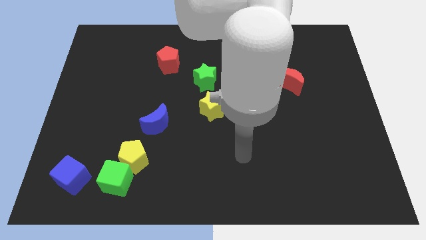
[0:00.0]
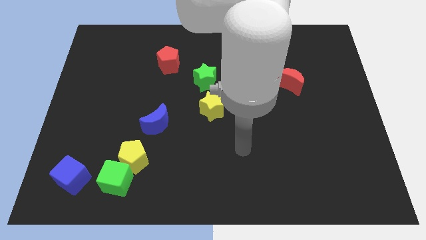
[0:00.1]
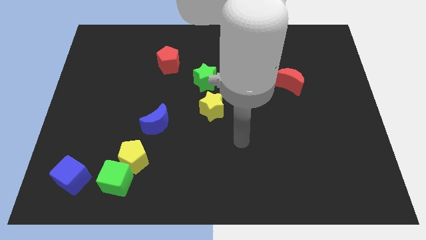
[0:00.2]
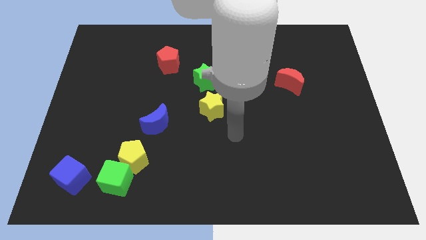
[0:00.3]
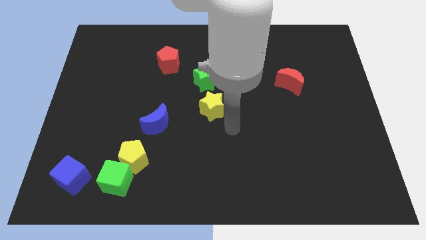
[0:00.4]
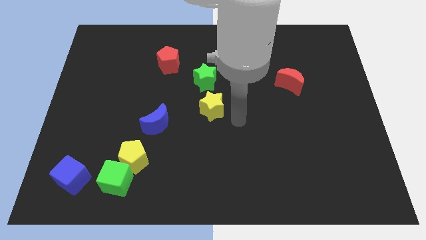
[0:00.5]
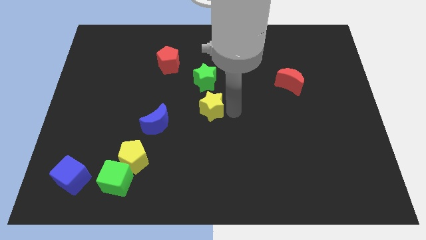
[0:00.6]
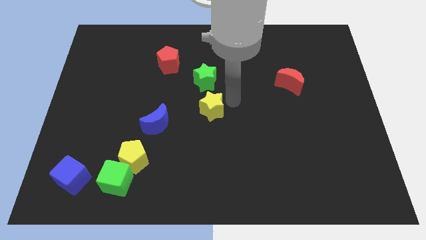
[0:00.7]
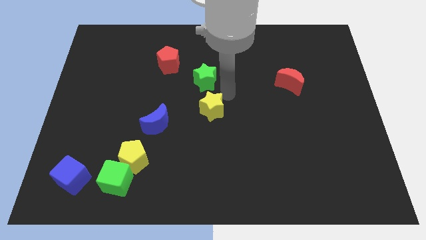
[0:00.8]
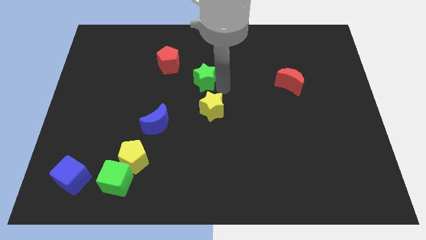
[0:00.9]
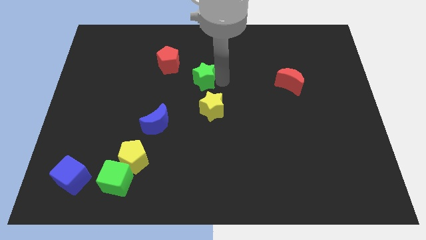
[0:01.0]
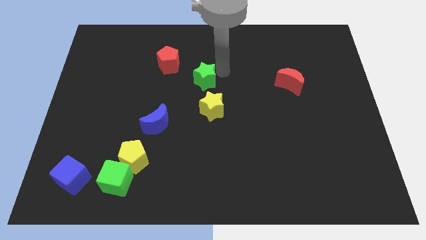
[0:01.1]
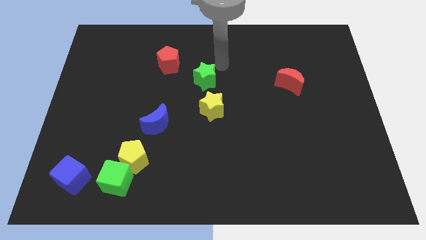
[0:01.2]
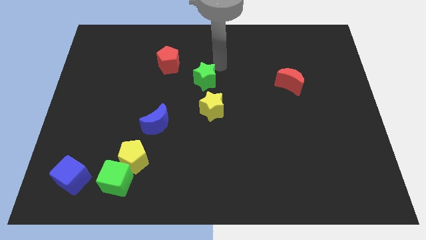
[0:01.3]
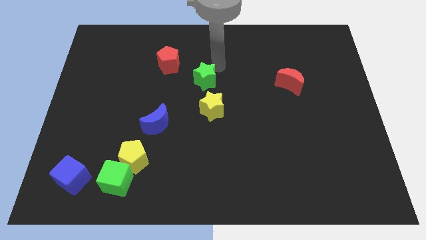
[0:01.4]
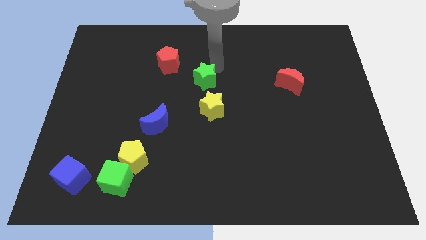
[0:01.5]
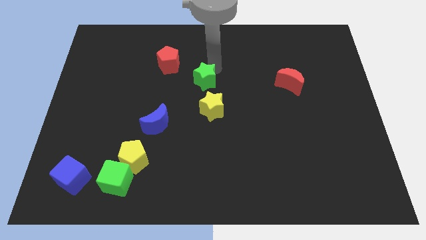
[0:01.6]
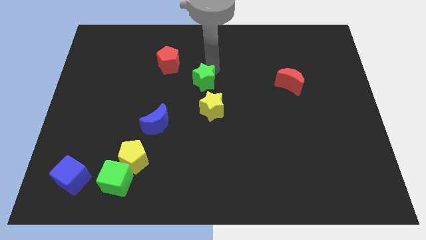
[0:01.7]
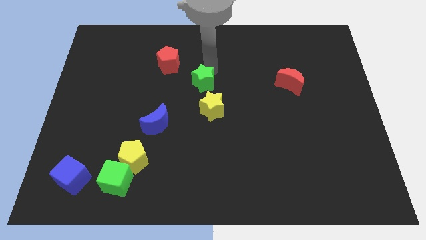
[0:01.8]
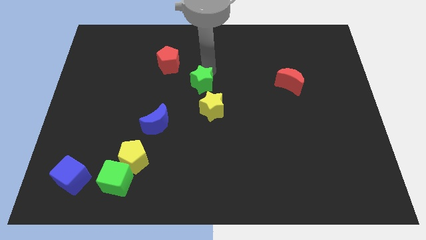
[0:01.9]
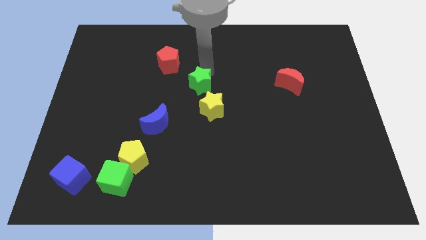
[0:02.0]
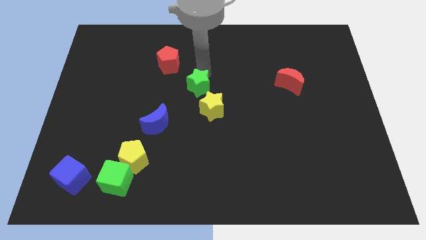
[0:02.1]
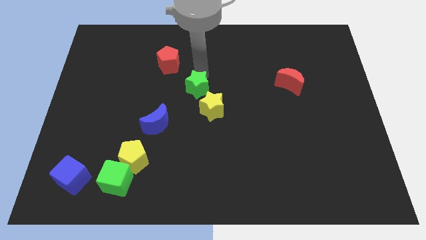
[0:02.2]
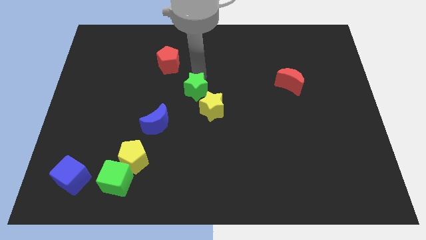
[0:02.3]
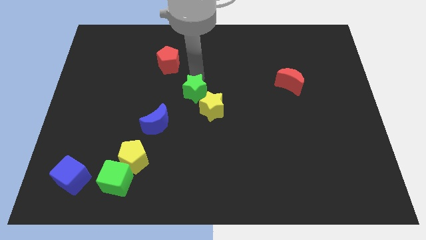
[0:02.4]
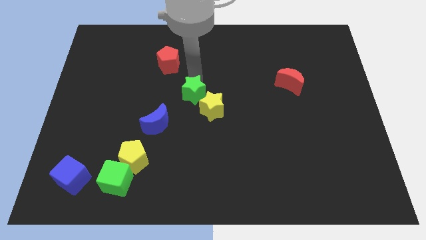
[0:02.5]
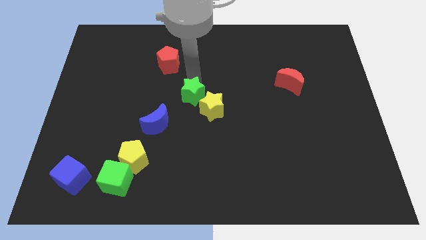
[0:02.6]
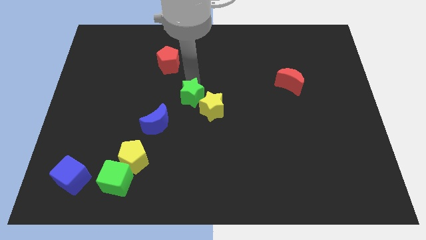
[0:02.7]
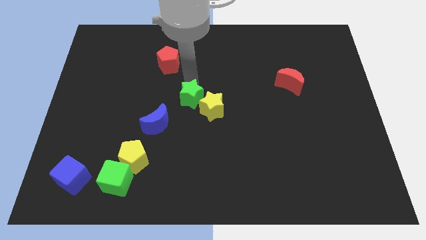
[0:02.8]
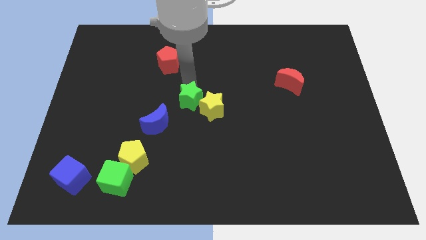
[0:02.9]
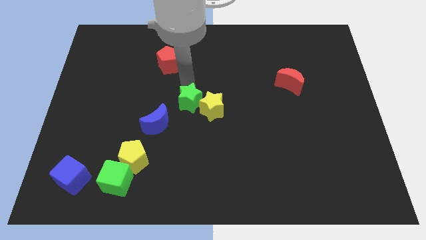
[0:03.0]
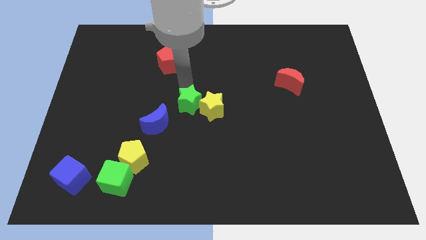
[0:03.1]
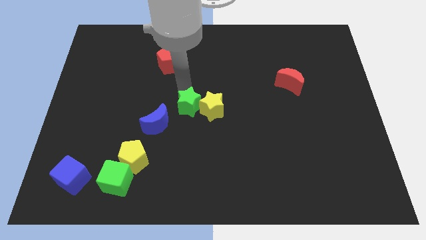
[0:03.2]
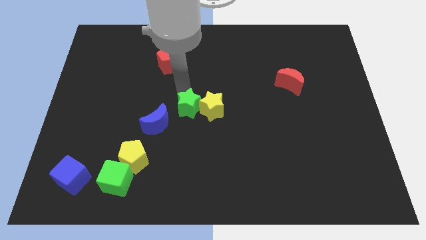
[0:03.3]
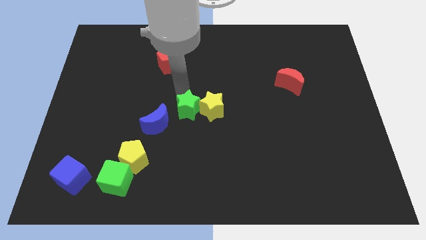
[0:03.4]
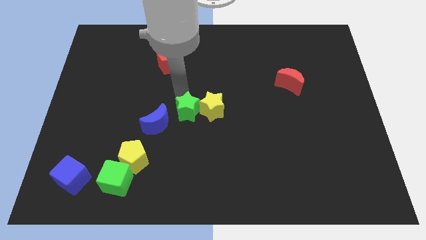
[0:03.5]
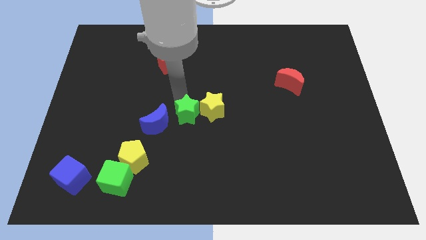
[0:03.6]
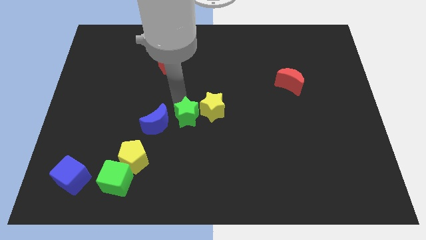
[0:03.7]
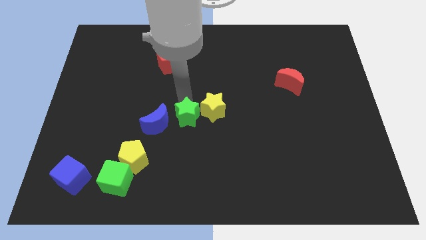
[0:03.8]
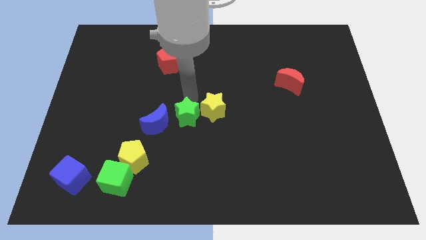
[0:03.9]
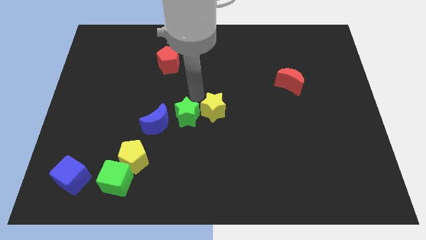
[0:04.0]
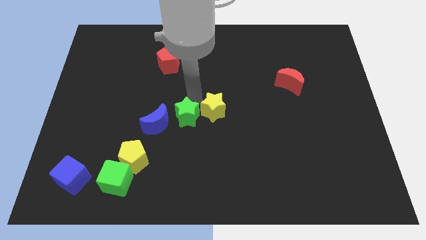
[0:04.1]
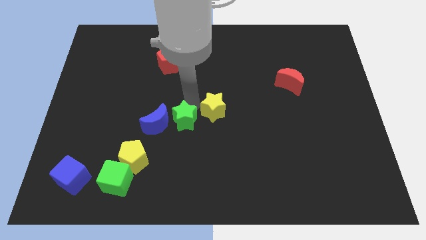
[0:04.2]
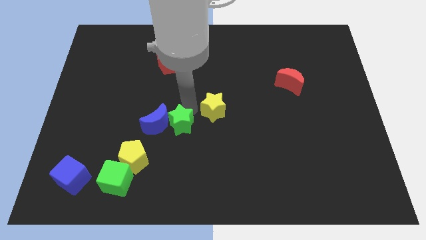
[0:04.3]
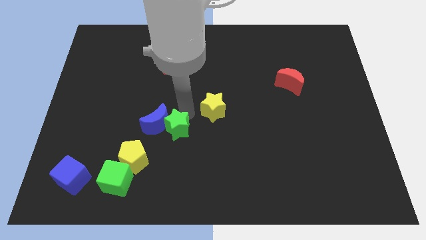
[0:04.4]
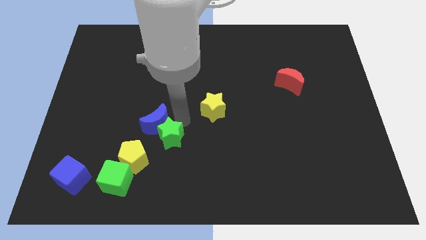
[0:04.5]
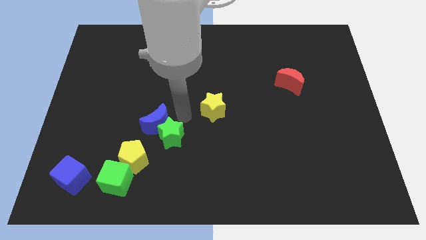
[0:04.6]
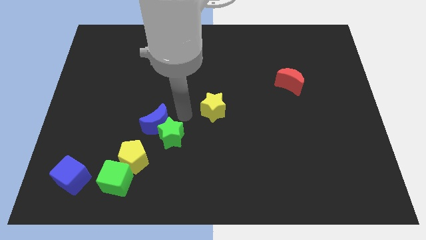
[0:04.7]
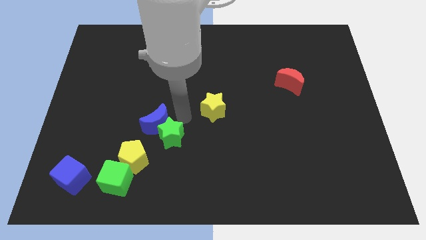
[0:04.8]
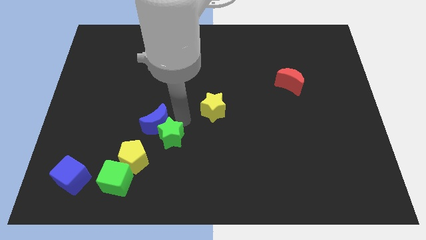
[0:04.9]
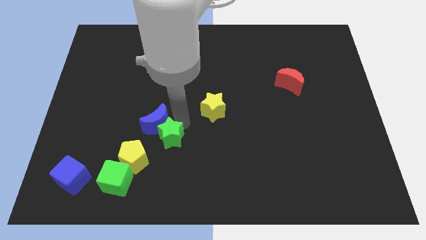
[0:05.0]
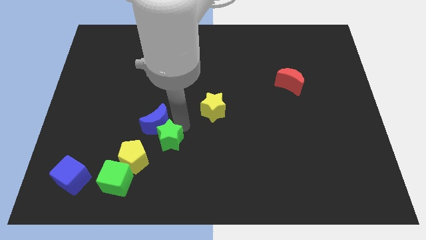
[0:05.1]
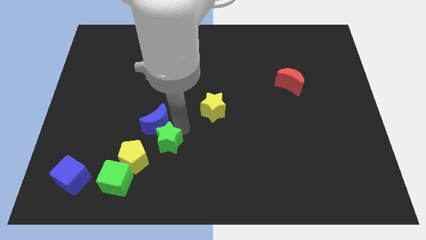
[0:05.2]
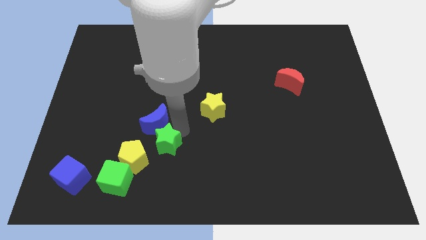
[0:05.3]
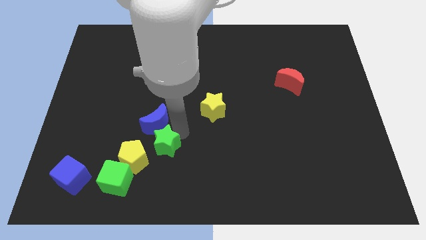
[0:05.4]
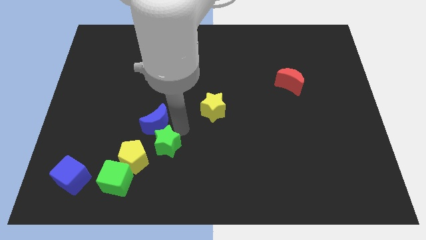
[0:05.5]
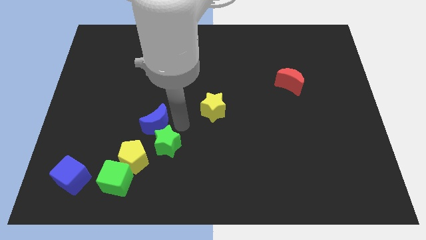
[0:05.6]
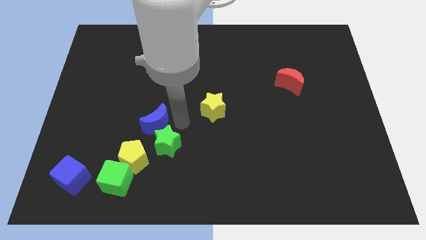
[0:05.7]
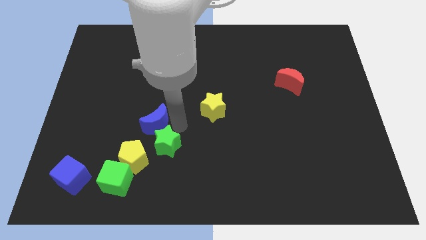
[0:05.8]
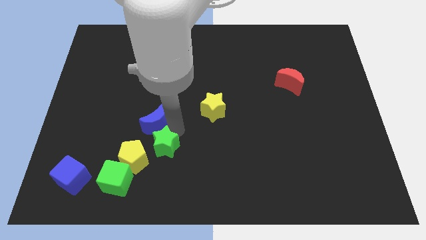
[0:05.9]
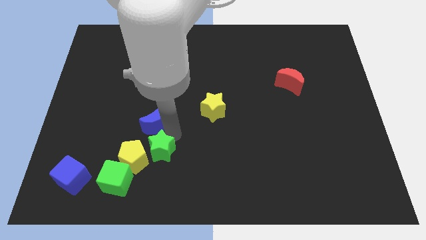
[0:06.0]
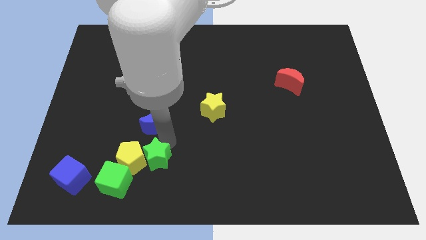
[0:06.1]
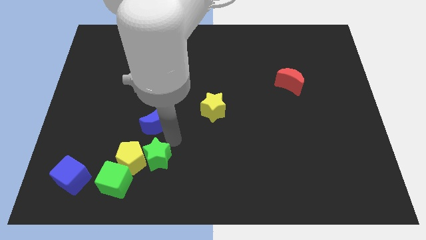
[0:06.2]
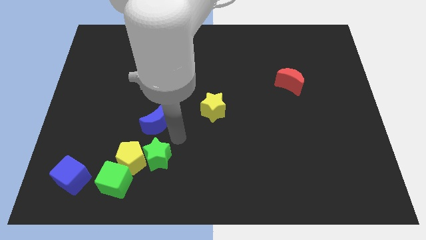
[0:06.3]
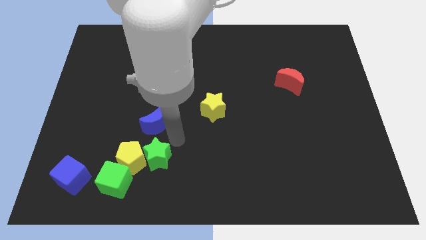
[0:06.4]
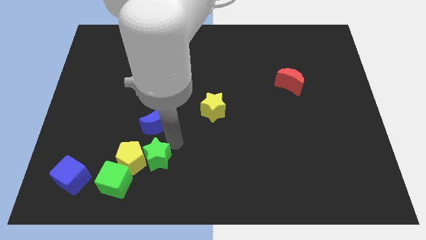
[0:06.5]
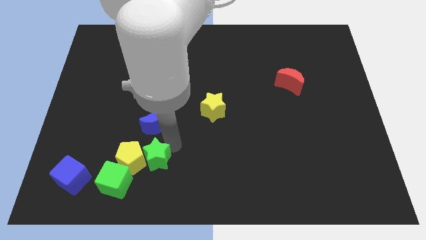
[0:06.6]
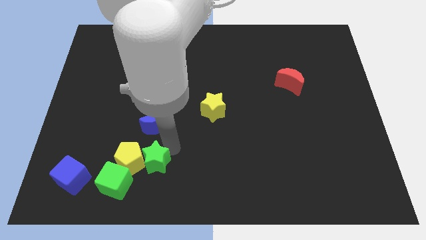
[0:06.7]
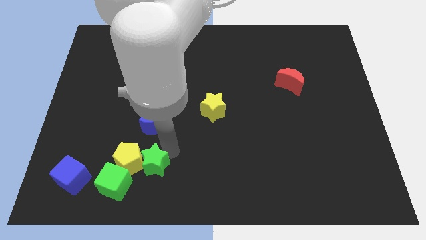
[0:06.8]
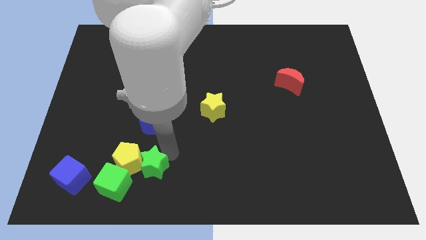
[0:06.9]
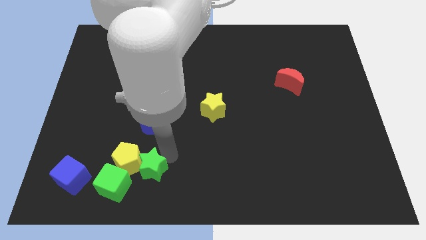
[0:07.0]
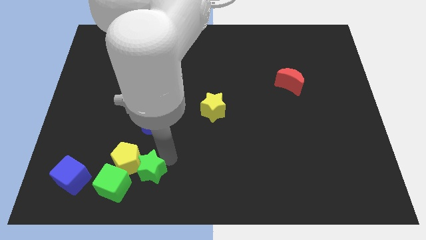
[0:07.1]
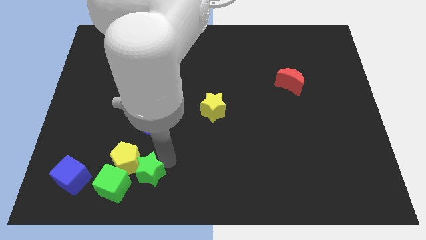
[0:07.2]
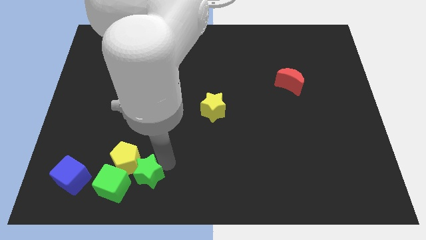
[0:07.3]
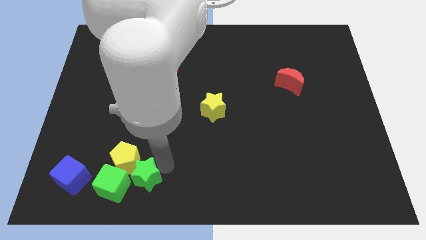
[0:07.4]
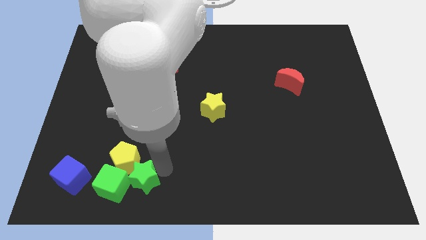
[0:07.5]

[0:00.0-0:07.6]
move the green star to the green cube
